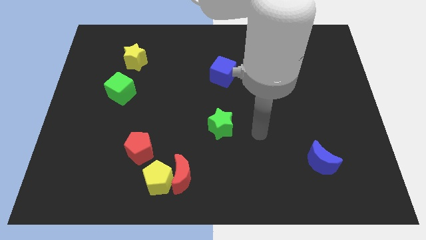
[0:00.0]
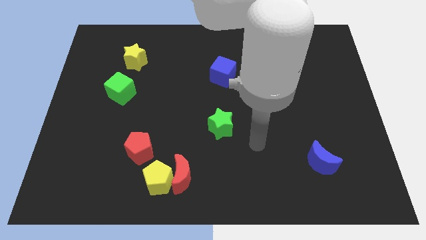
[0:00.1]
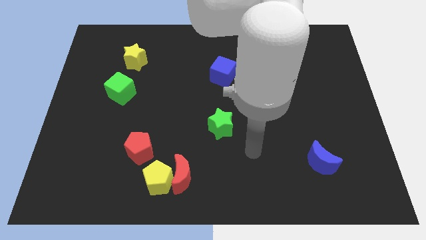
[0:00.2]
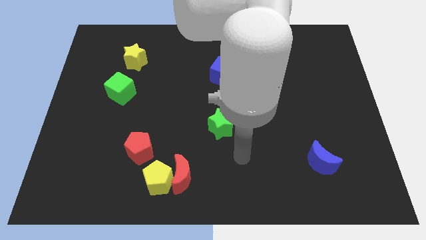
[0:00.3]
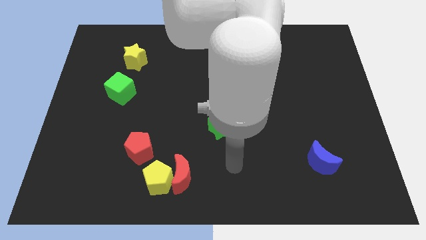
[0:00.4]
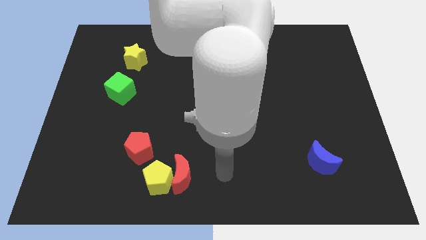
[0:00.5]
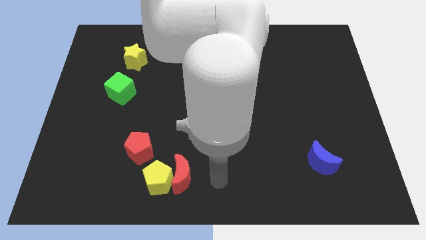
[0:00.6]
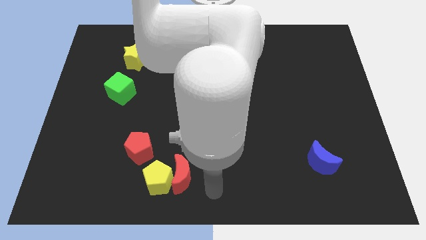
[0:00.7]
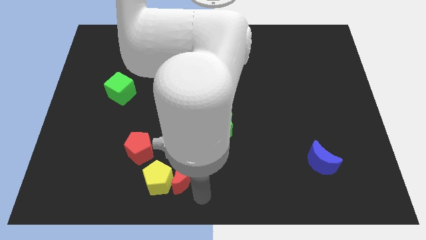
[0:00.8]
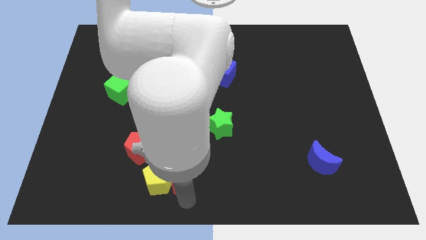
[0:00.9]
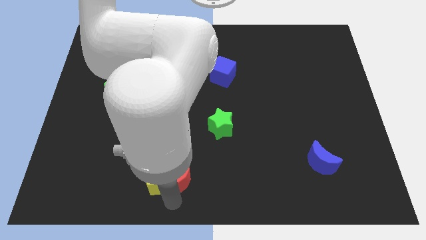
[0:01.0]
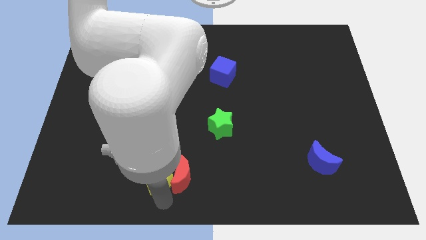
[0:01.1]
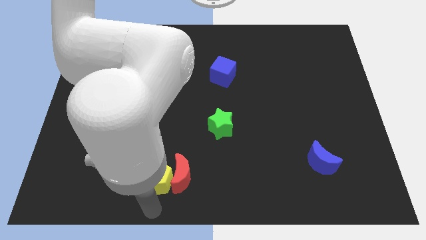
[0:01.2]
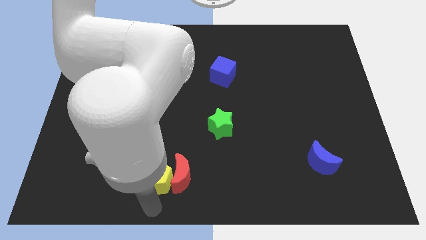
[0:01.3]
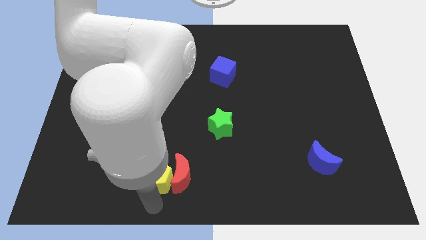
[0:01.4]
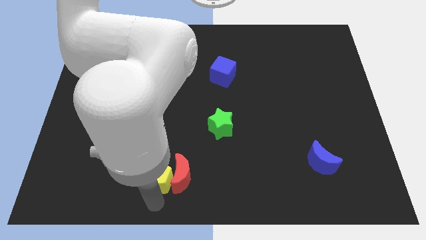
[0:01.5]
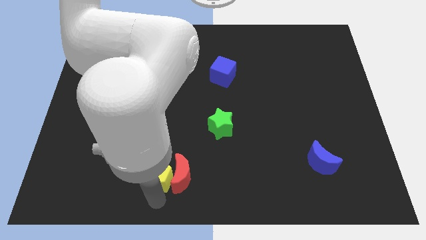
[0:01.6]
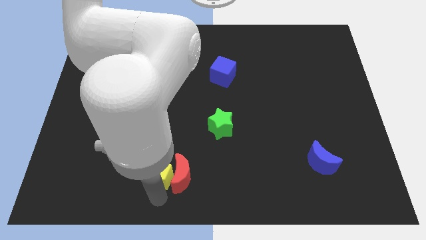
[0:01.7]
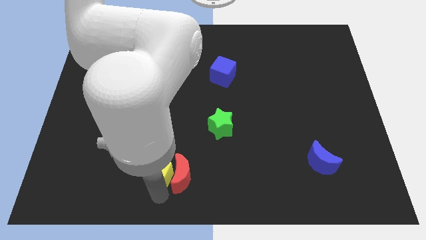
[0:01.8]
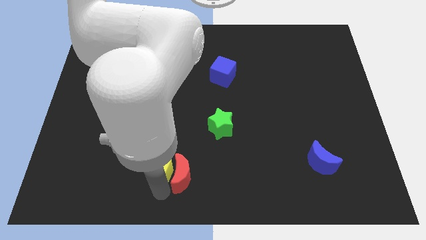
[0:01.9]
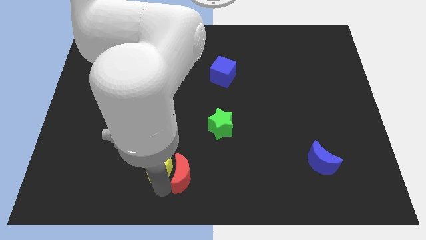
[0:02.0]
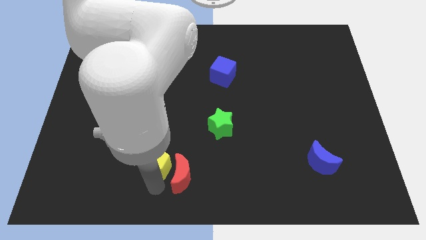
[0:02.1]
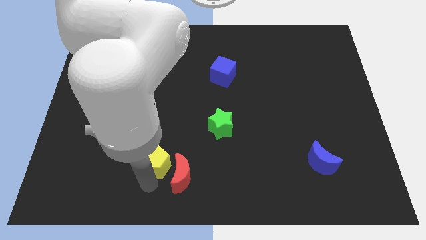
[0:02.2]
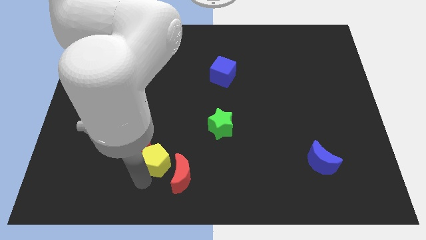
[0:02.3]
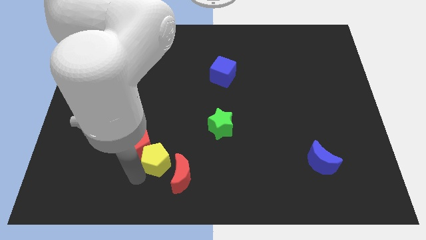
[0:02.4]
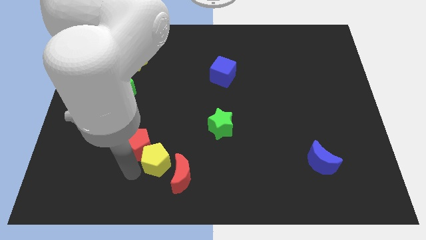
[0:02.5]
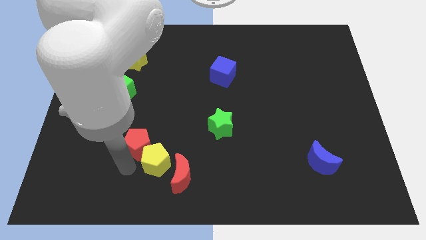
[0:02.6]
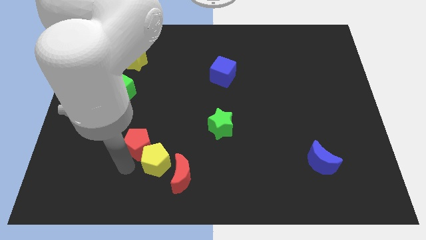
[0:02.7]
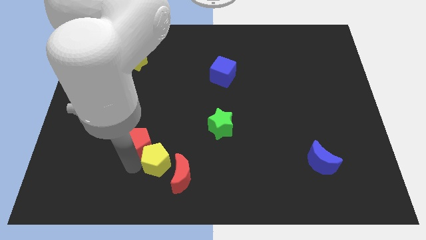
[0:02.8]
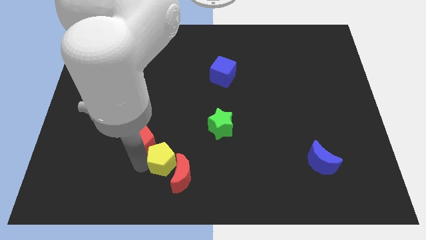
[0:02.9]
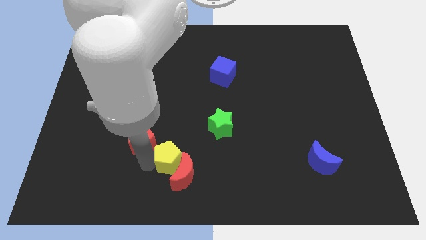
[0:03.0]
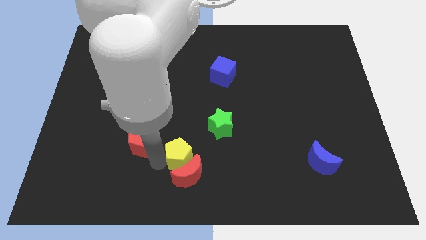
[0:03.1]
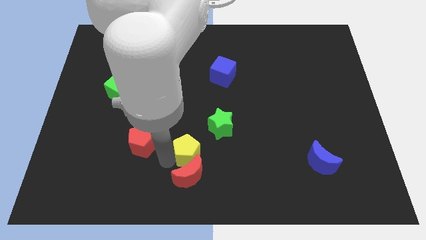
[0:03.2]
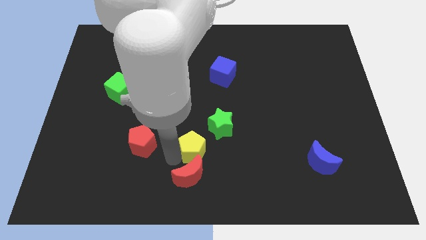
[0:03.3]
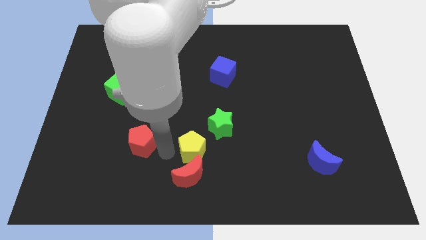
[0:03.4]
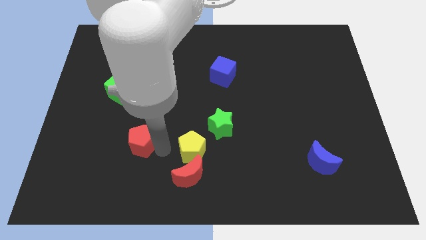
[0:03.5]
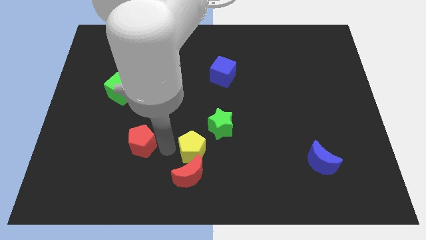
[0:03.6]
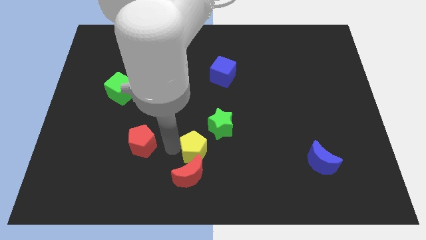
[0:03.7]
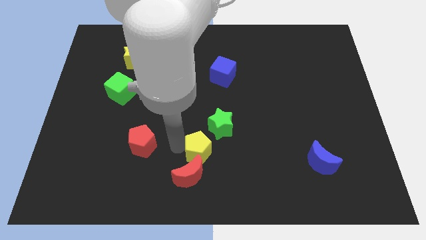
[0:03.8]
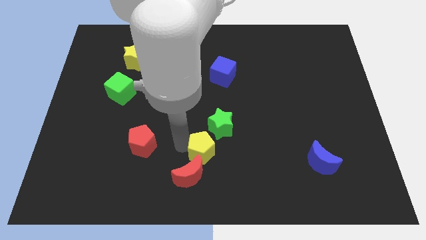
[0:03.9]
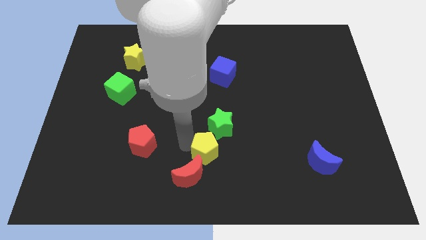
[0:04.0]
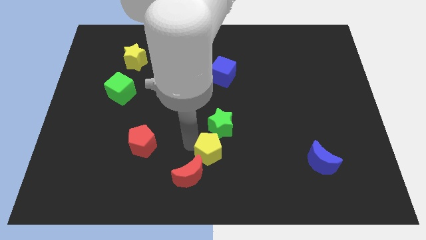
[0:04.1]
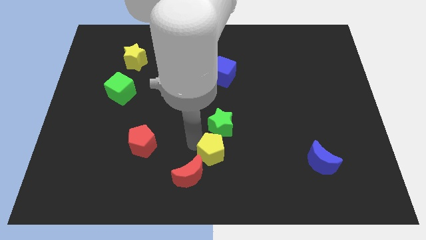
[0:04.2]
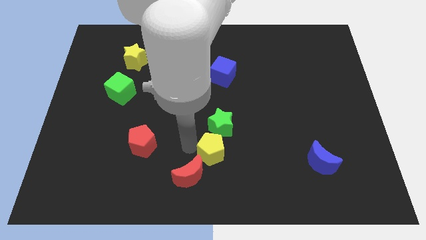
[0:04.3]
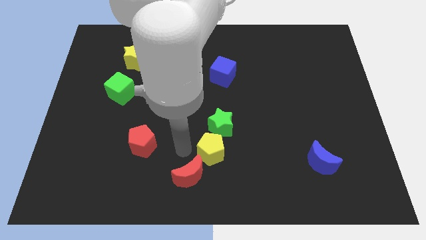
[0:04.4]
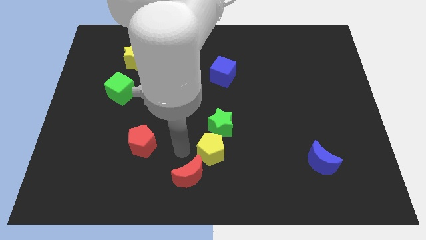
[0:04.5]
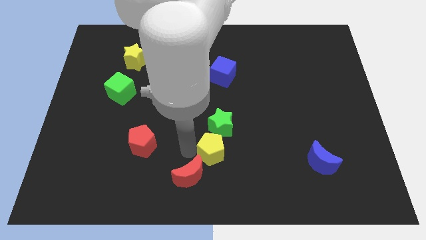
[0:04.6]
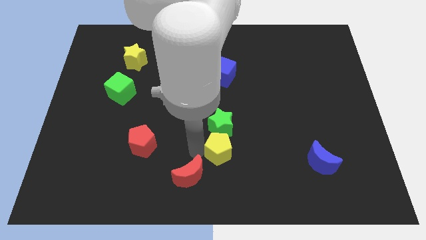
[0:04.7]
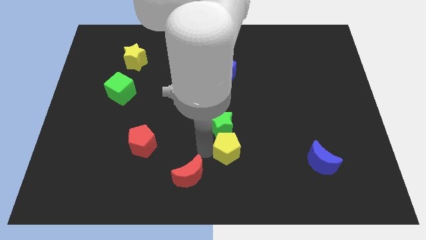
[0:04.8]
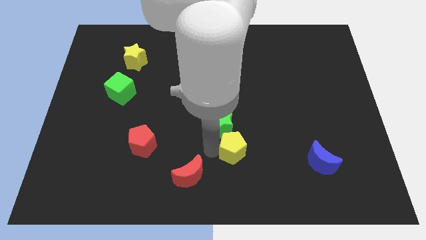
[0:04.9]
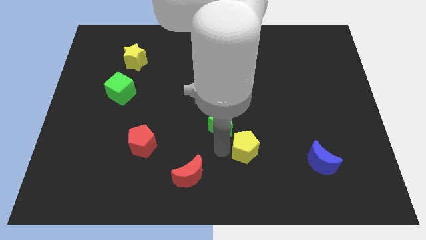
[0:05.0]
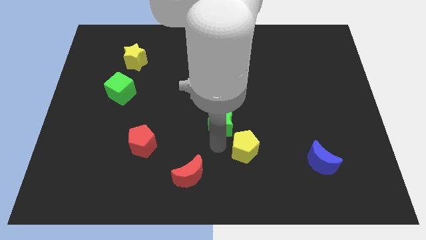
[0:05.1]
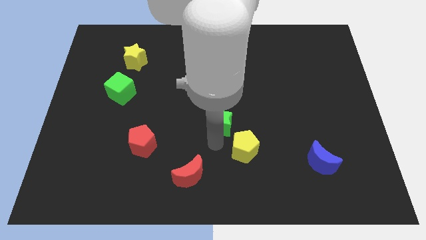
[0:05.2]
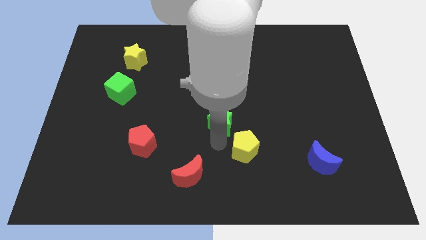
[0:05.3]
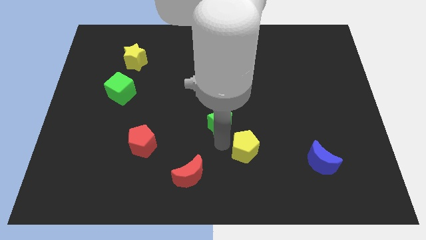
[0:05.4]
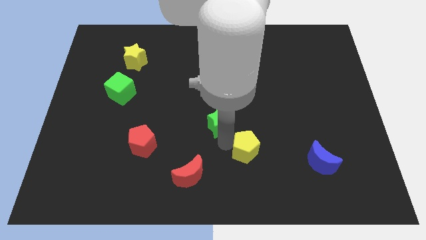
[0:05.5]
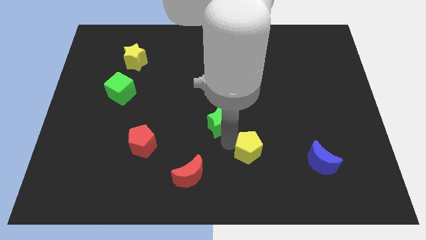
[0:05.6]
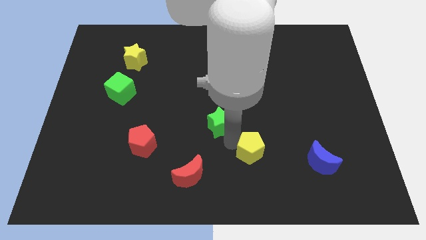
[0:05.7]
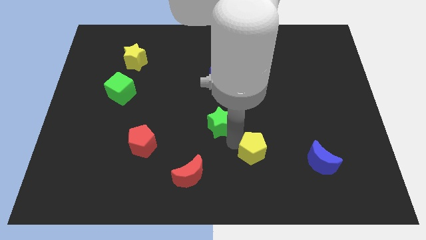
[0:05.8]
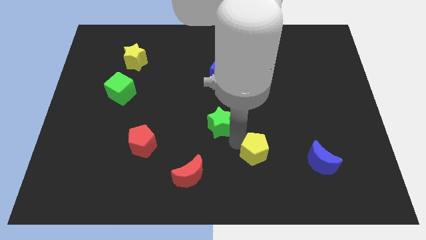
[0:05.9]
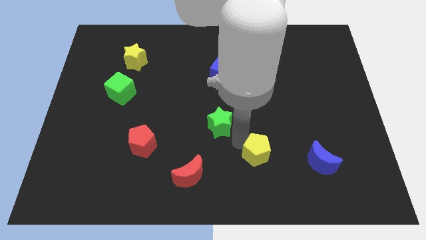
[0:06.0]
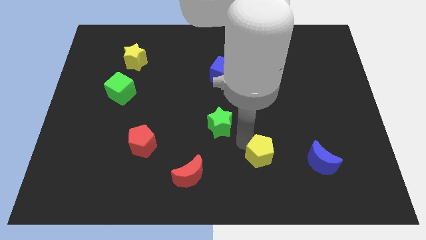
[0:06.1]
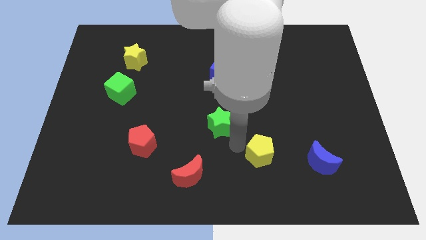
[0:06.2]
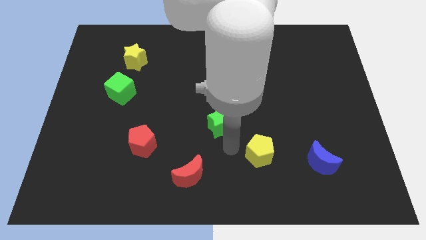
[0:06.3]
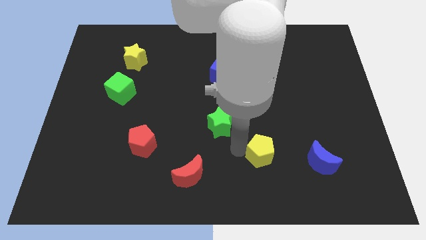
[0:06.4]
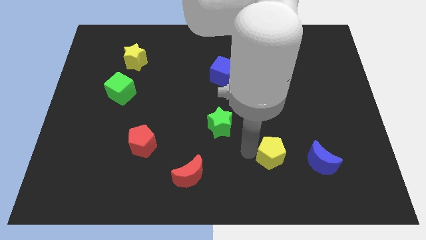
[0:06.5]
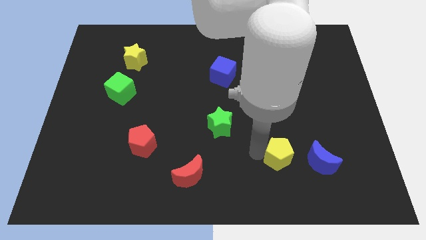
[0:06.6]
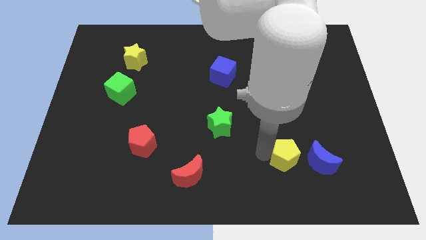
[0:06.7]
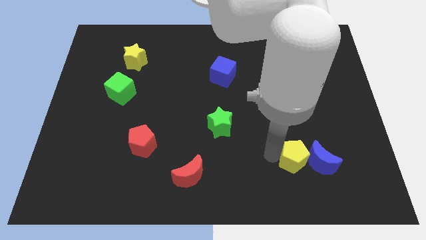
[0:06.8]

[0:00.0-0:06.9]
move the yellow pentagon next to the blue moon
